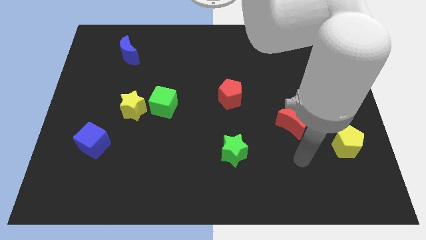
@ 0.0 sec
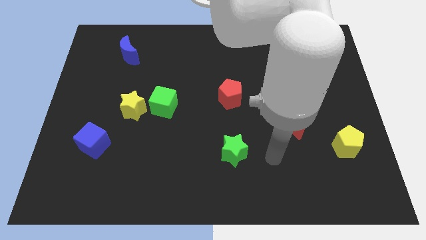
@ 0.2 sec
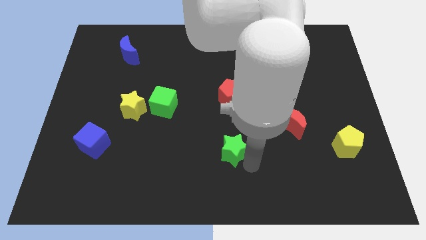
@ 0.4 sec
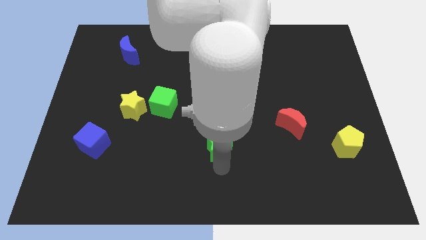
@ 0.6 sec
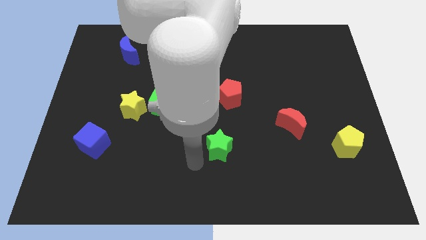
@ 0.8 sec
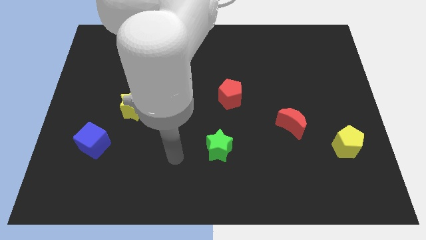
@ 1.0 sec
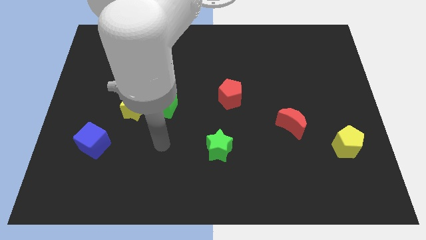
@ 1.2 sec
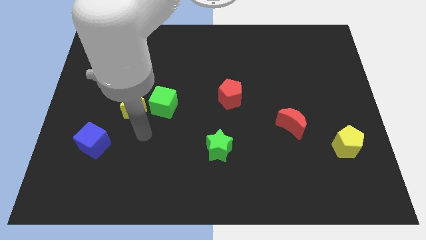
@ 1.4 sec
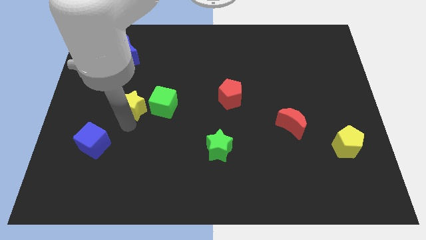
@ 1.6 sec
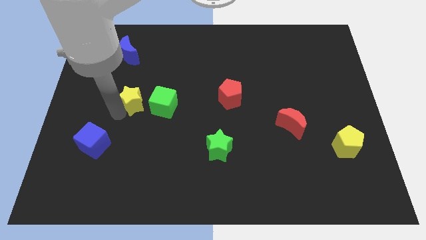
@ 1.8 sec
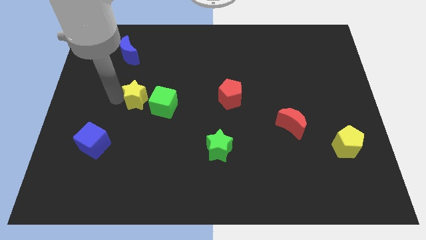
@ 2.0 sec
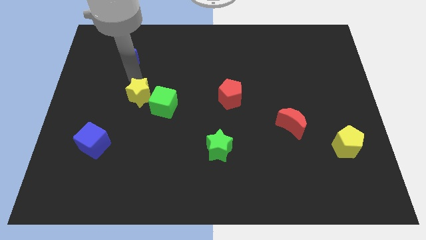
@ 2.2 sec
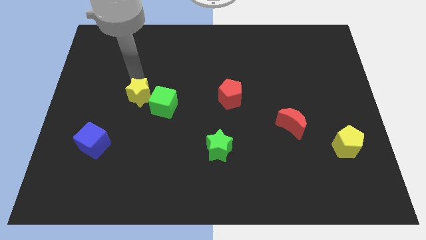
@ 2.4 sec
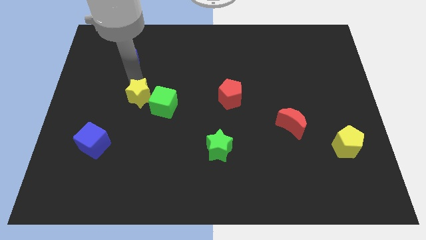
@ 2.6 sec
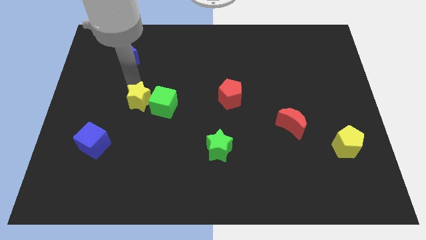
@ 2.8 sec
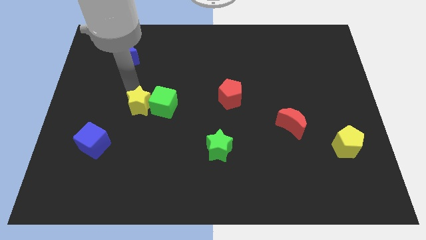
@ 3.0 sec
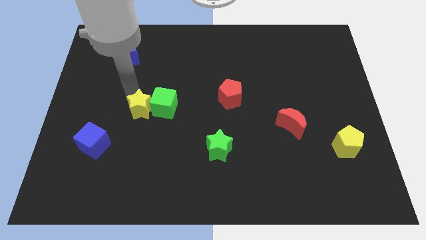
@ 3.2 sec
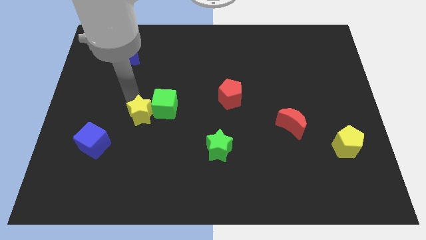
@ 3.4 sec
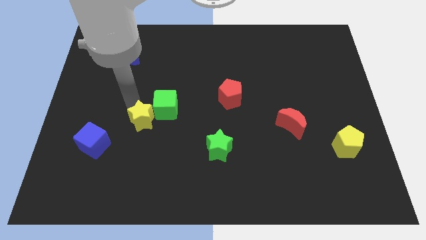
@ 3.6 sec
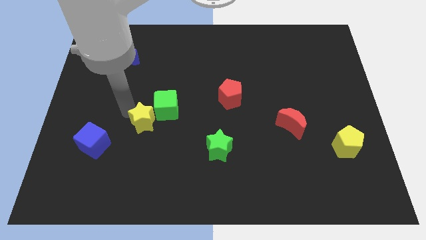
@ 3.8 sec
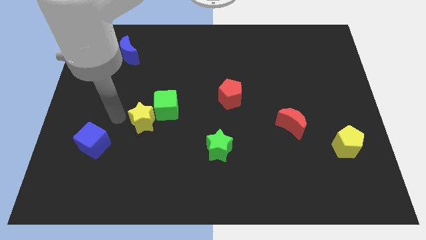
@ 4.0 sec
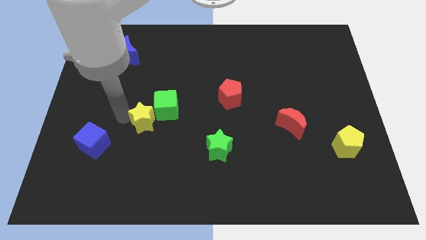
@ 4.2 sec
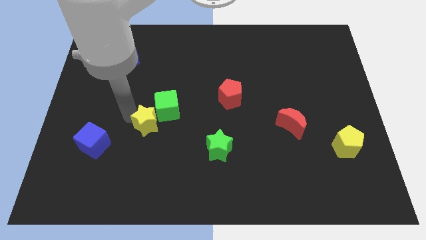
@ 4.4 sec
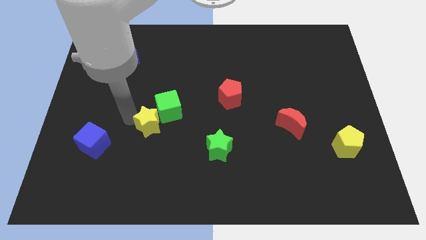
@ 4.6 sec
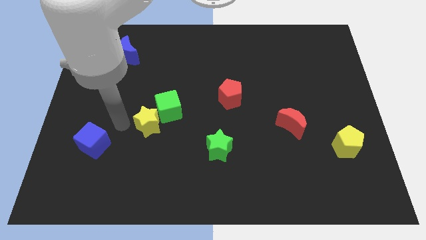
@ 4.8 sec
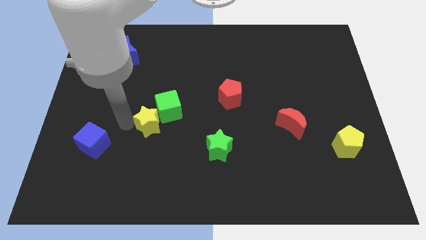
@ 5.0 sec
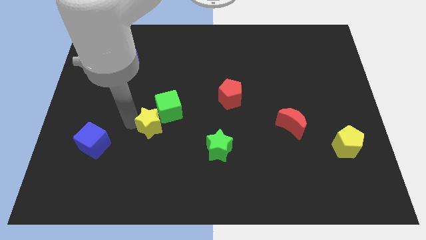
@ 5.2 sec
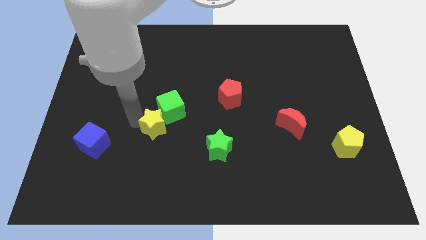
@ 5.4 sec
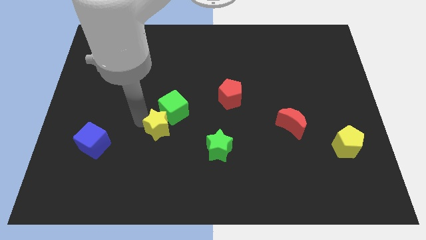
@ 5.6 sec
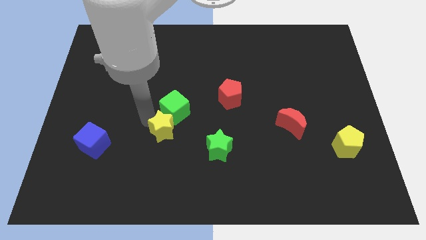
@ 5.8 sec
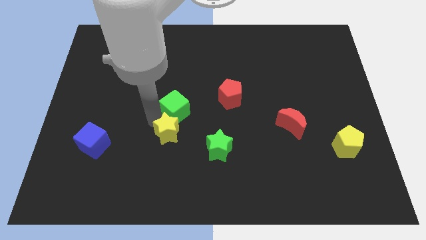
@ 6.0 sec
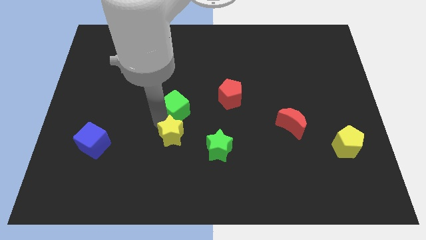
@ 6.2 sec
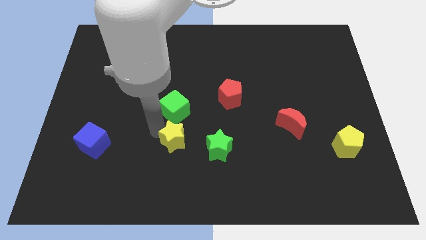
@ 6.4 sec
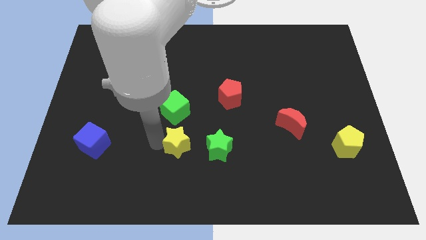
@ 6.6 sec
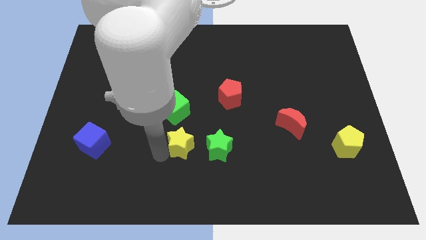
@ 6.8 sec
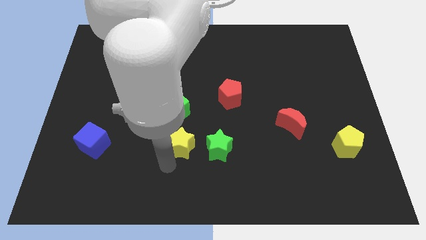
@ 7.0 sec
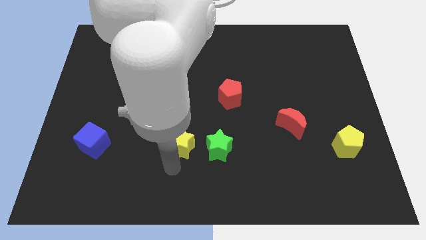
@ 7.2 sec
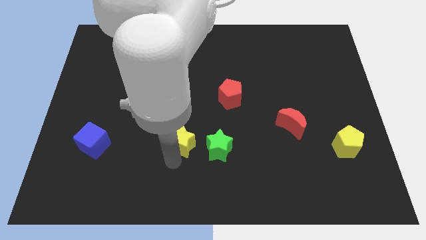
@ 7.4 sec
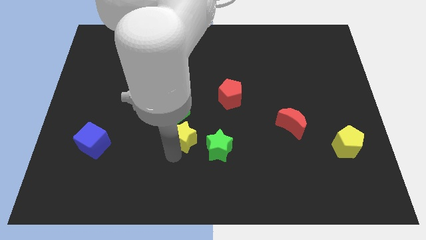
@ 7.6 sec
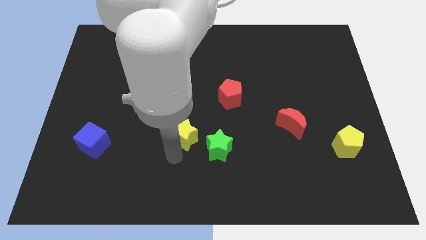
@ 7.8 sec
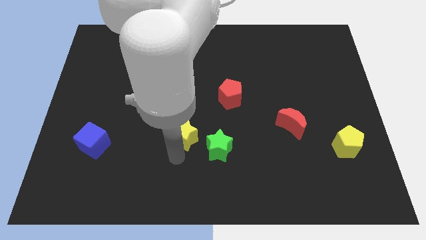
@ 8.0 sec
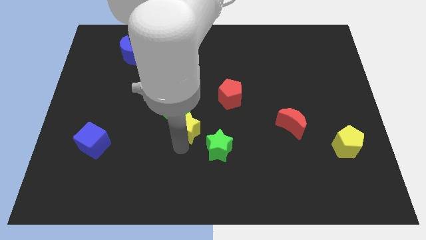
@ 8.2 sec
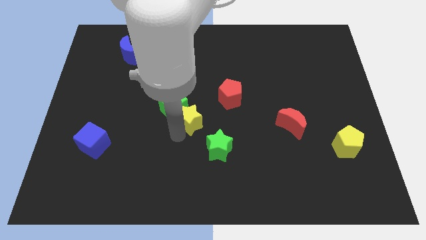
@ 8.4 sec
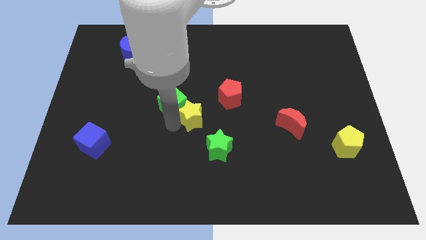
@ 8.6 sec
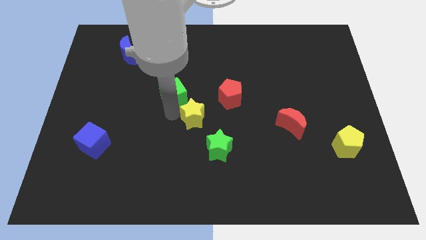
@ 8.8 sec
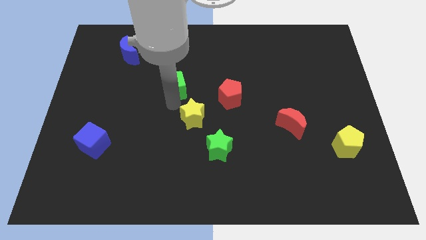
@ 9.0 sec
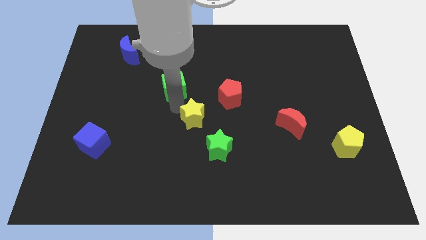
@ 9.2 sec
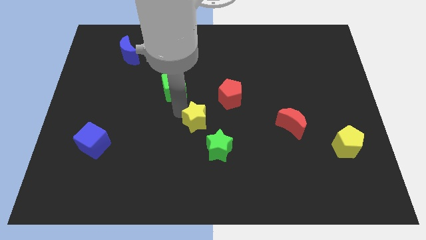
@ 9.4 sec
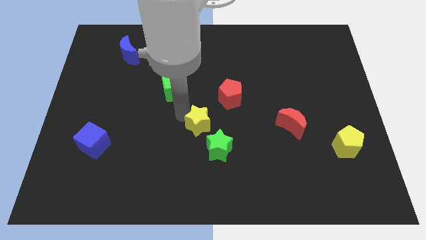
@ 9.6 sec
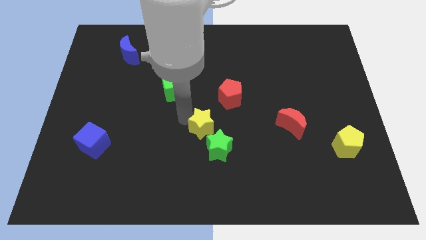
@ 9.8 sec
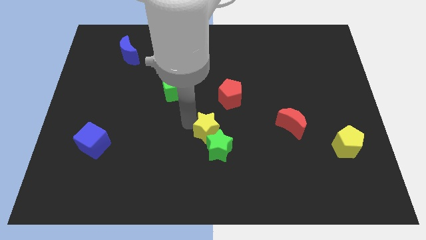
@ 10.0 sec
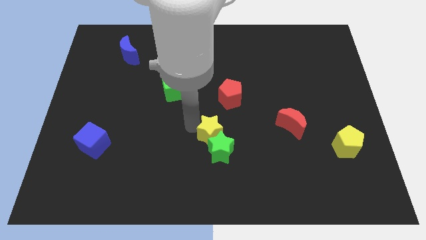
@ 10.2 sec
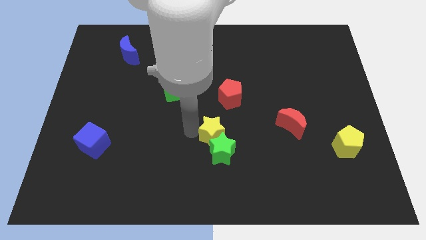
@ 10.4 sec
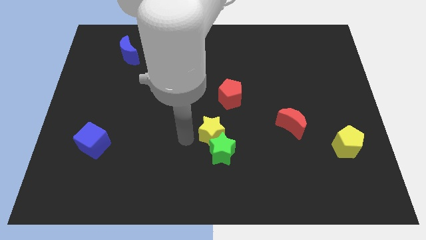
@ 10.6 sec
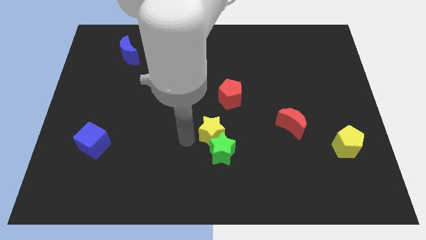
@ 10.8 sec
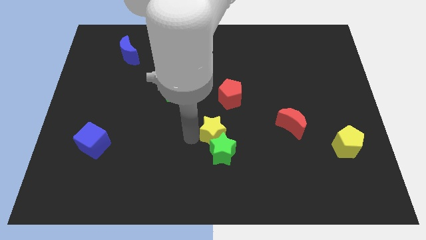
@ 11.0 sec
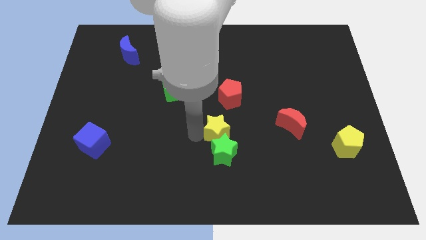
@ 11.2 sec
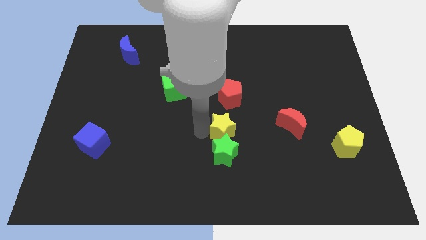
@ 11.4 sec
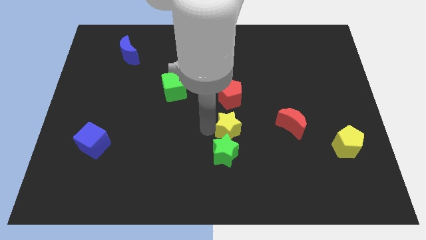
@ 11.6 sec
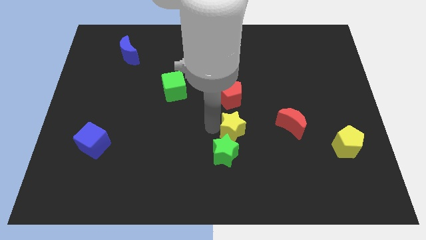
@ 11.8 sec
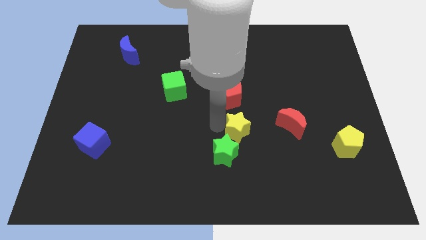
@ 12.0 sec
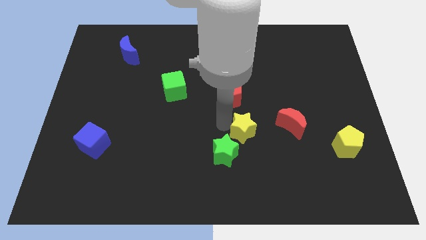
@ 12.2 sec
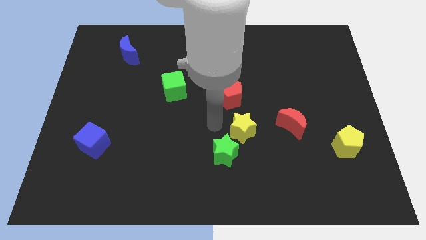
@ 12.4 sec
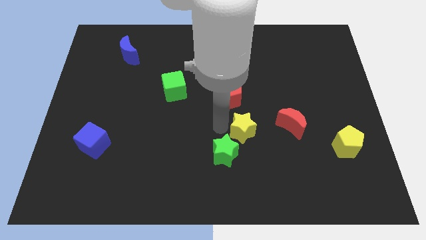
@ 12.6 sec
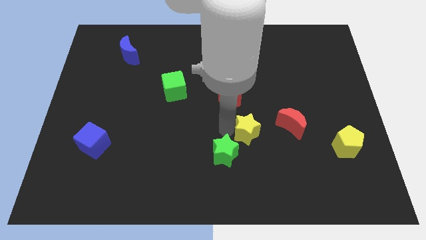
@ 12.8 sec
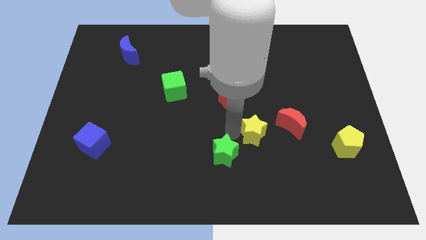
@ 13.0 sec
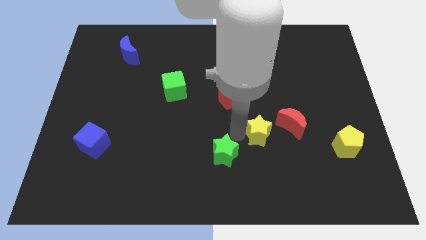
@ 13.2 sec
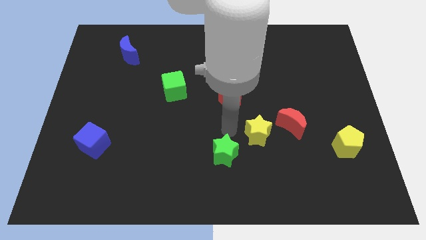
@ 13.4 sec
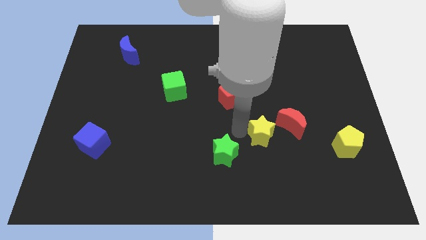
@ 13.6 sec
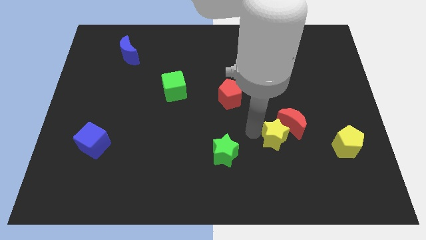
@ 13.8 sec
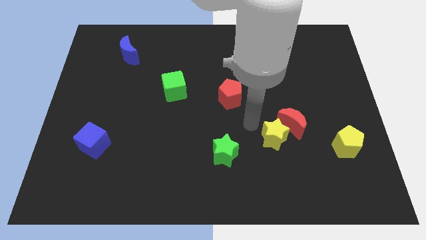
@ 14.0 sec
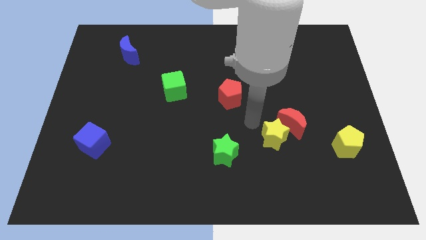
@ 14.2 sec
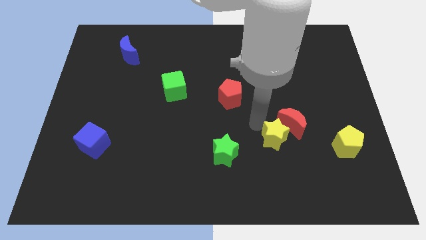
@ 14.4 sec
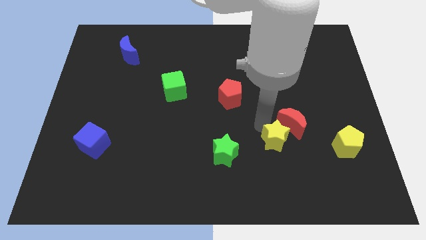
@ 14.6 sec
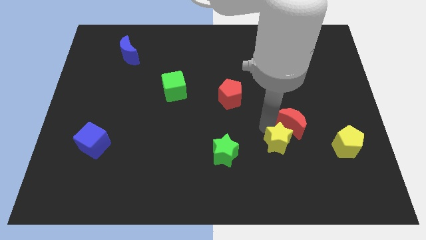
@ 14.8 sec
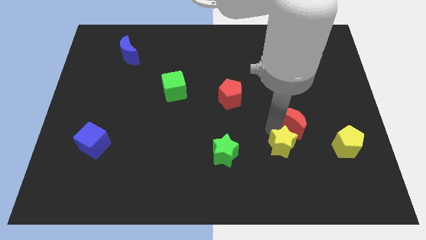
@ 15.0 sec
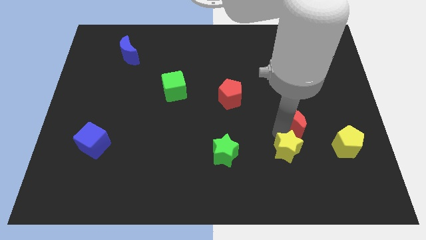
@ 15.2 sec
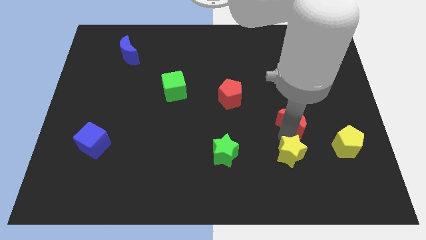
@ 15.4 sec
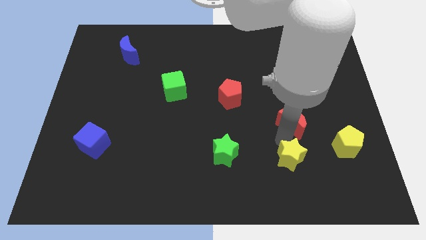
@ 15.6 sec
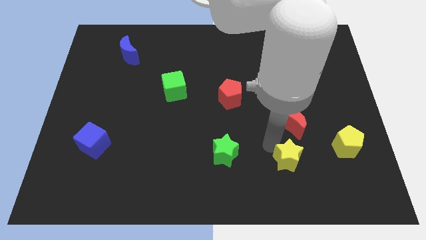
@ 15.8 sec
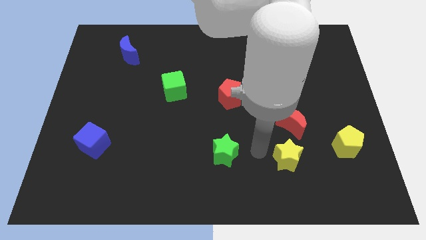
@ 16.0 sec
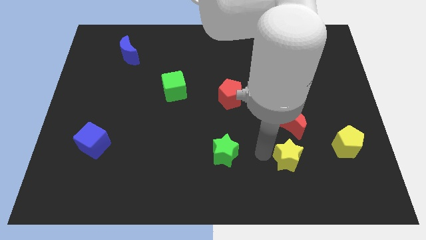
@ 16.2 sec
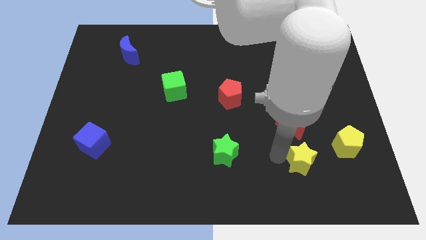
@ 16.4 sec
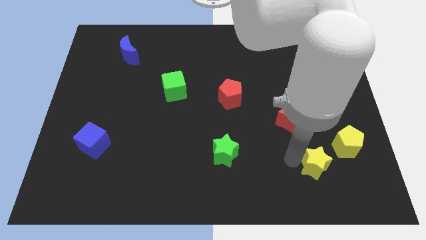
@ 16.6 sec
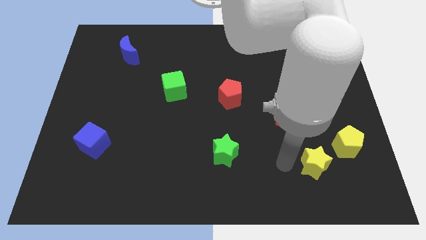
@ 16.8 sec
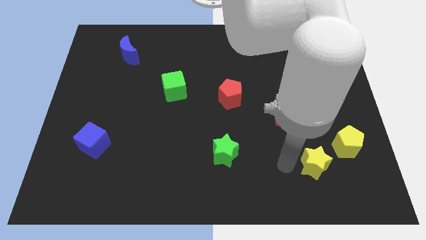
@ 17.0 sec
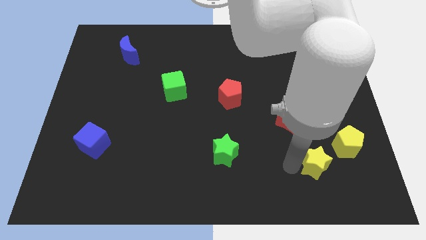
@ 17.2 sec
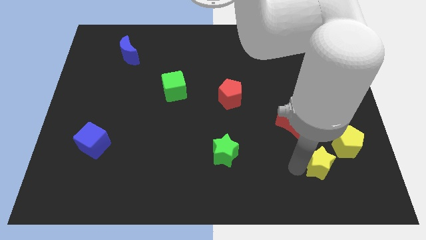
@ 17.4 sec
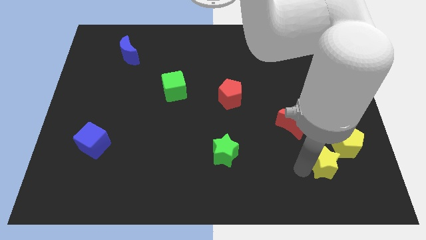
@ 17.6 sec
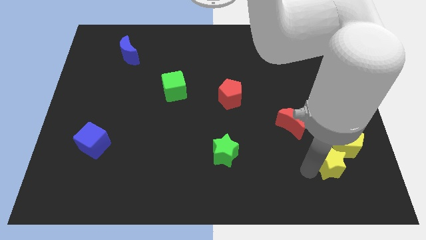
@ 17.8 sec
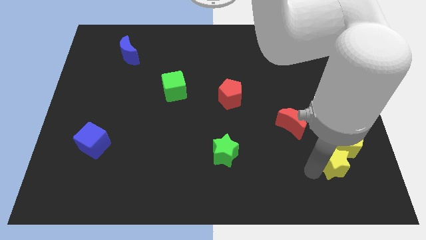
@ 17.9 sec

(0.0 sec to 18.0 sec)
put the yellow star to the yellow pentagon
